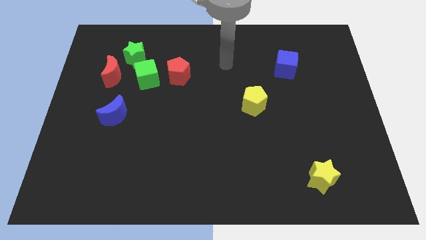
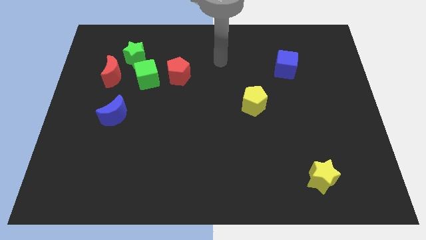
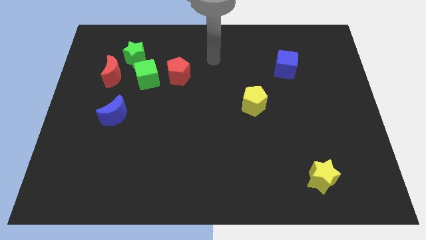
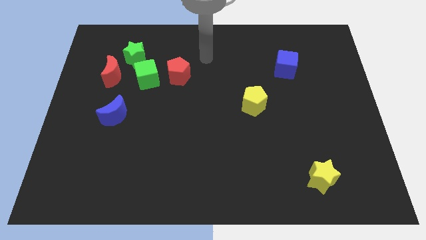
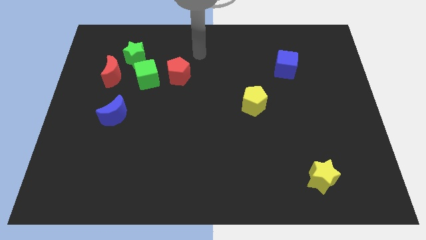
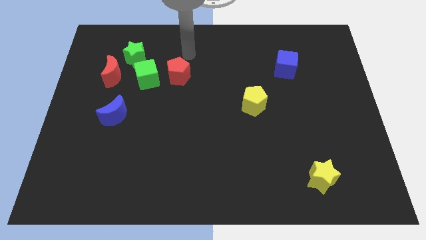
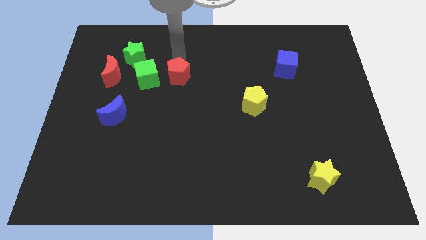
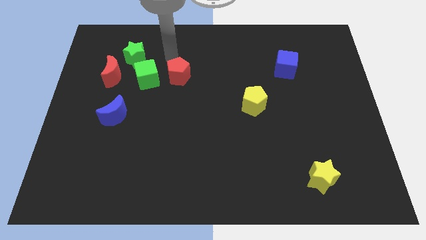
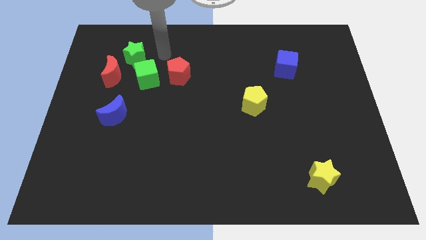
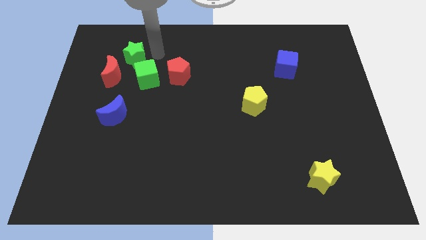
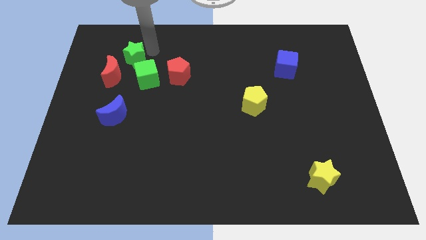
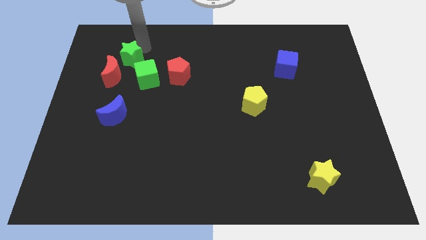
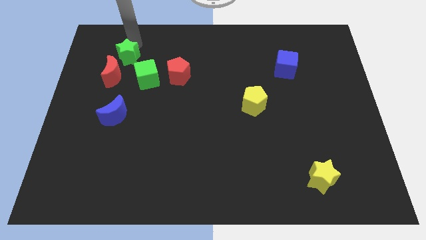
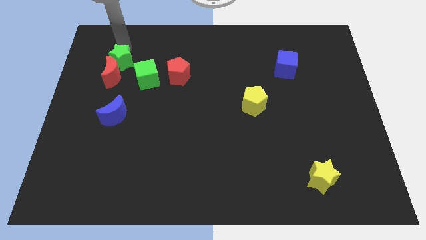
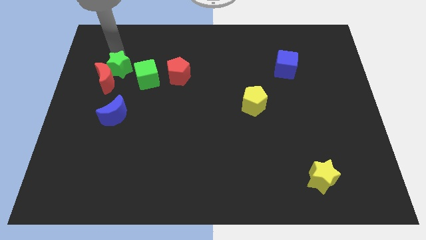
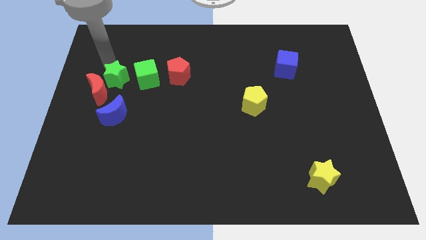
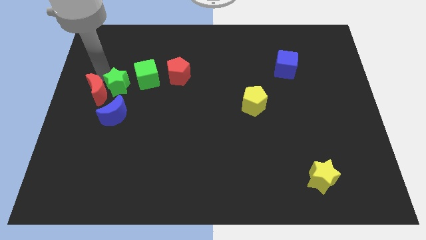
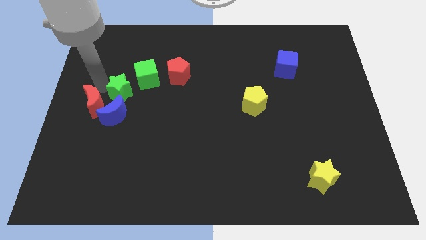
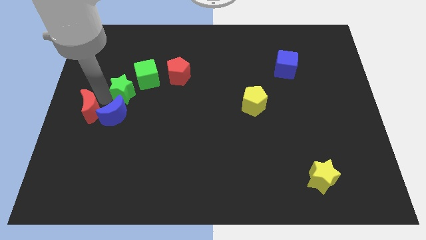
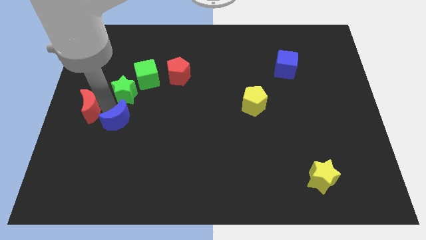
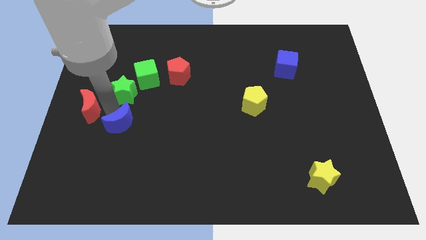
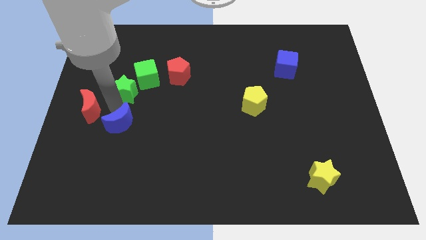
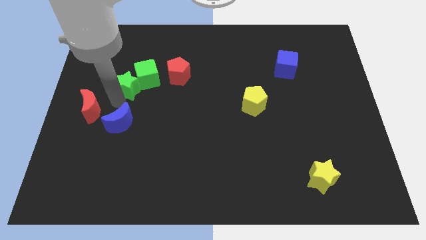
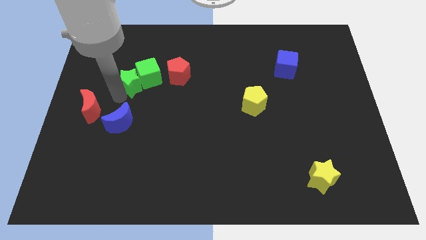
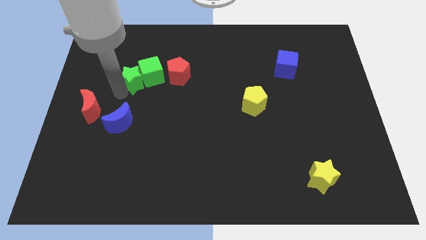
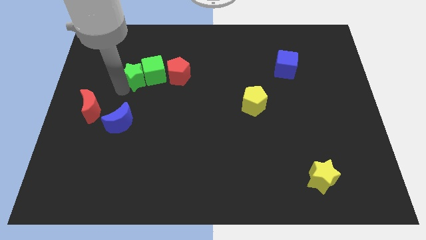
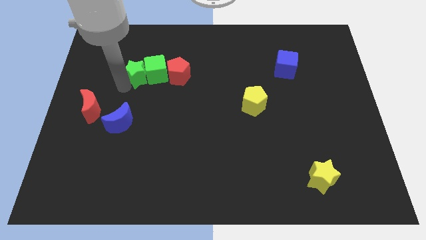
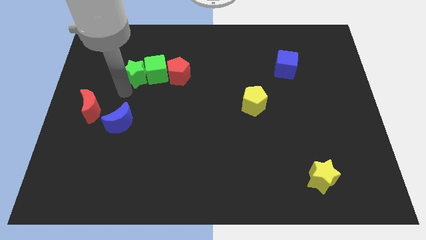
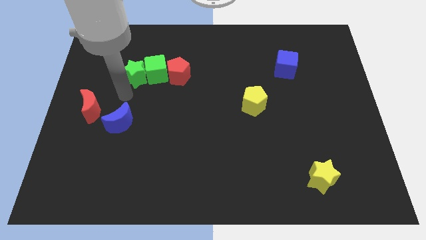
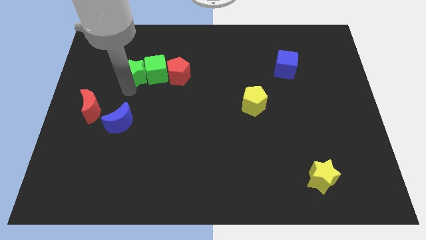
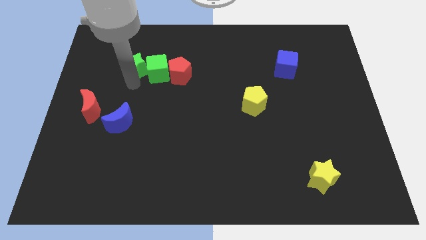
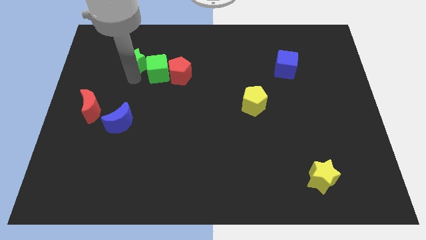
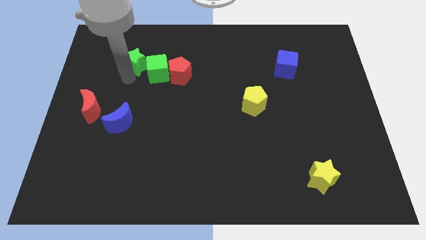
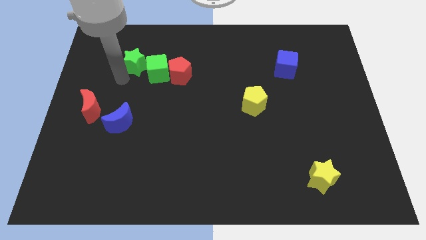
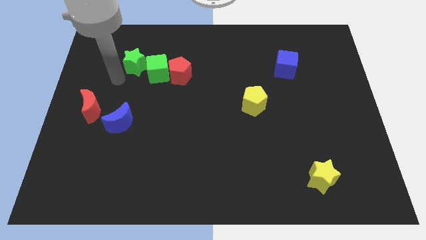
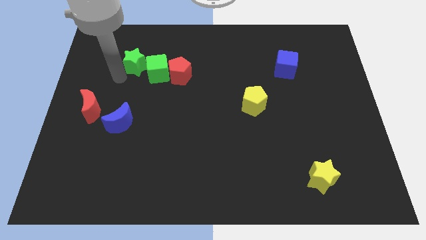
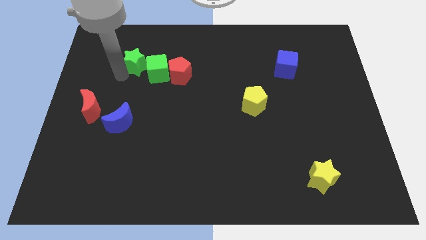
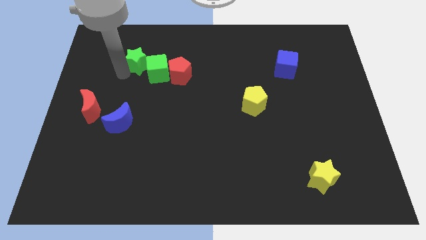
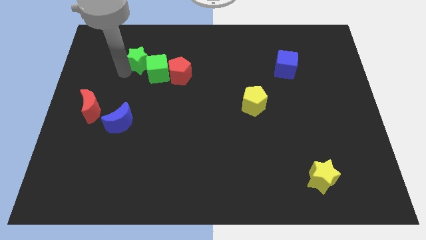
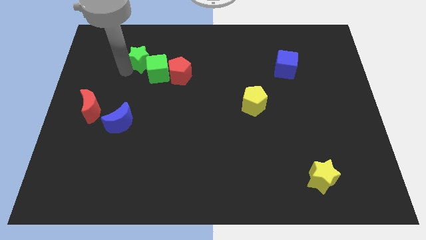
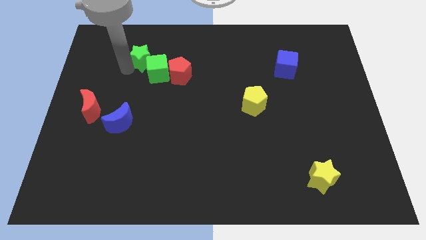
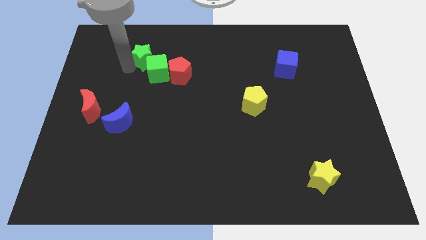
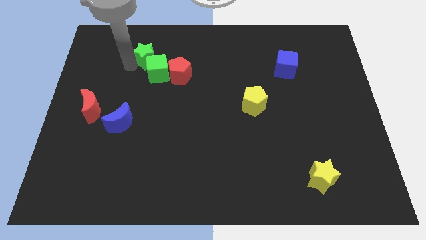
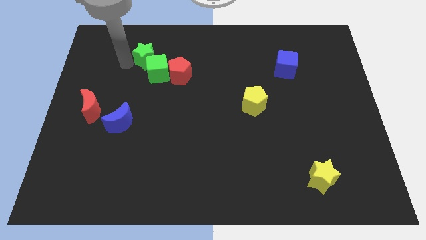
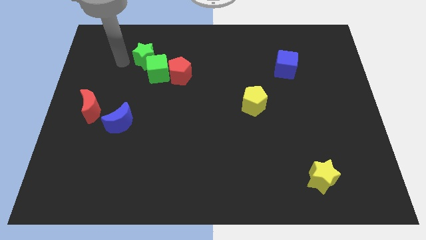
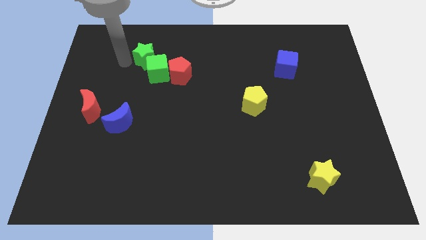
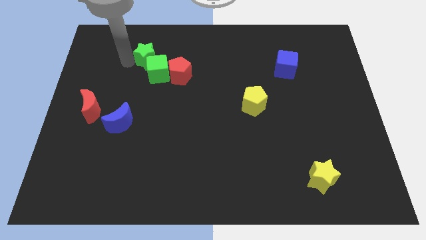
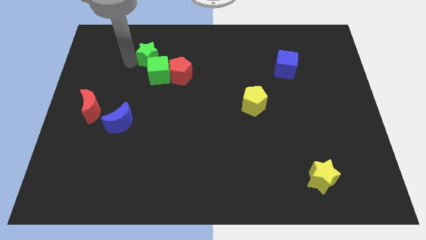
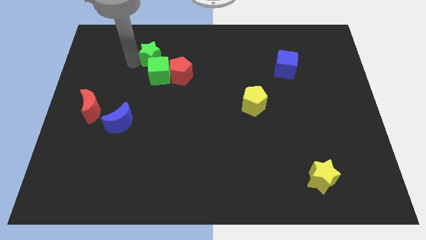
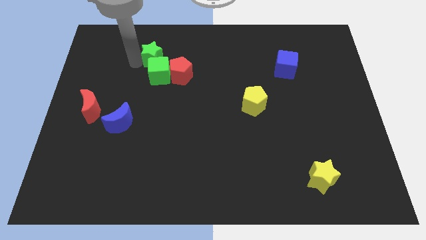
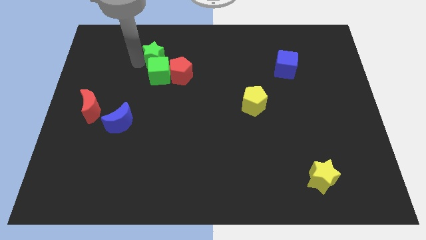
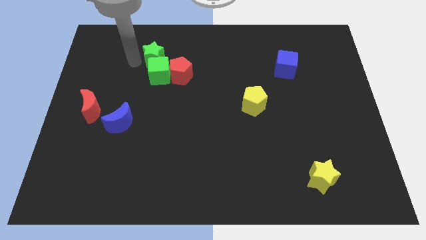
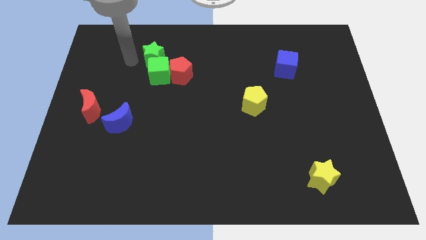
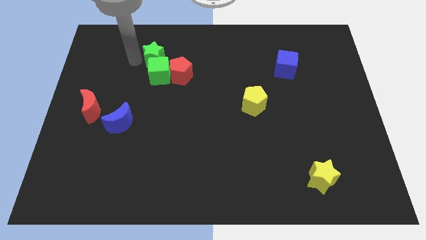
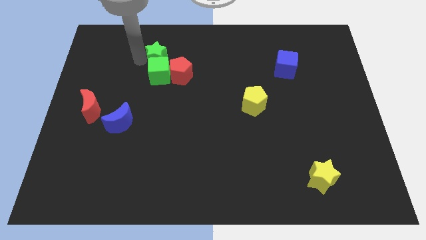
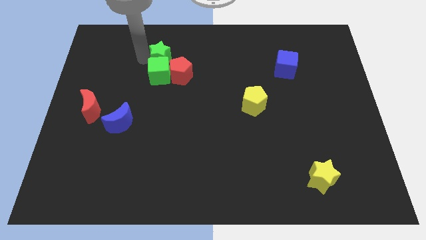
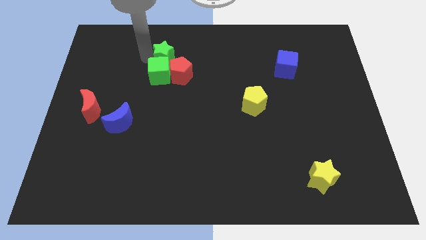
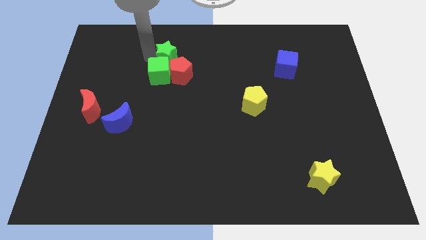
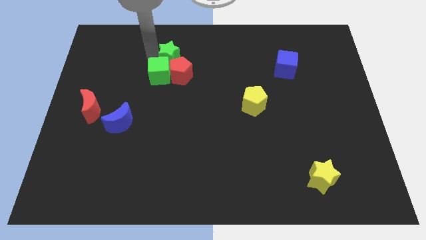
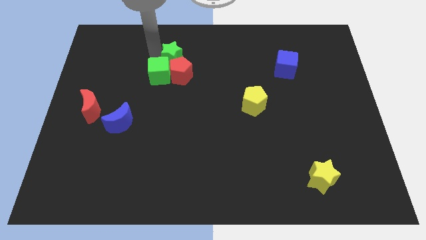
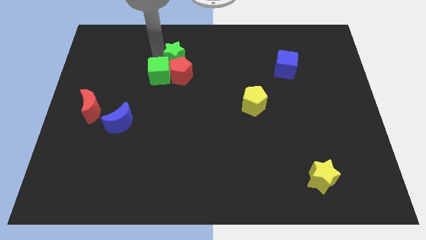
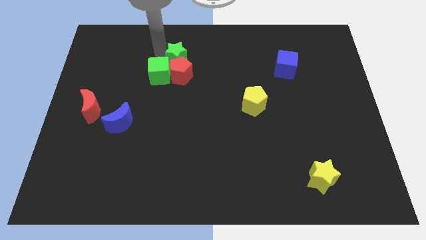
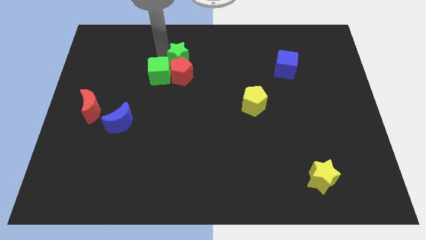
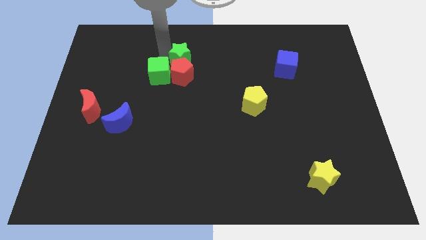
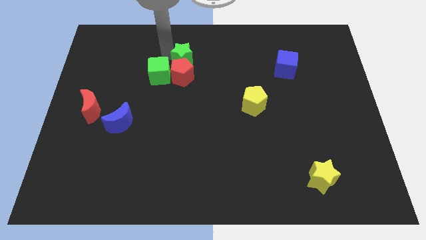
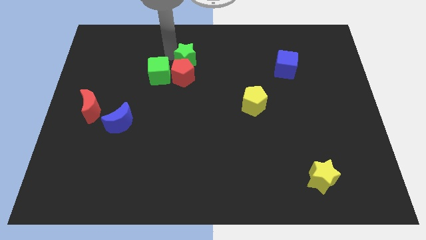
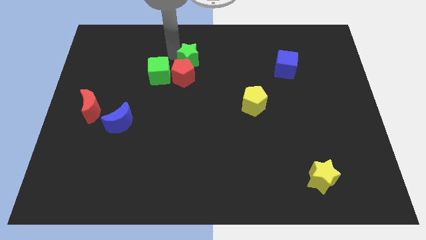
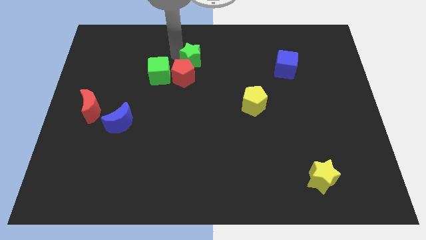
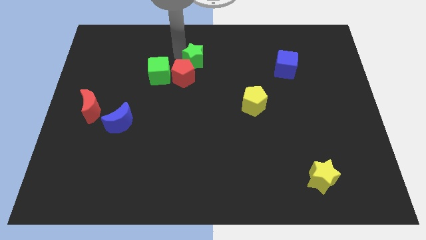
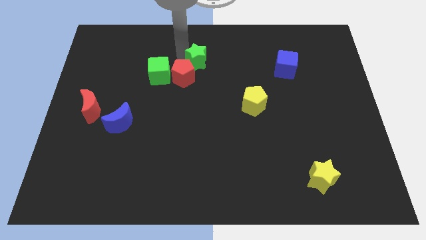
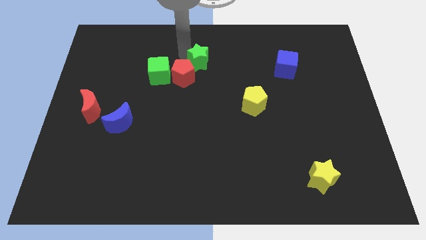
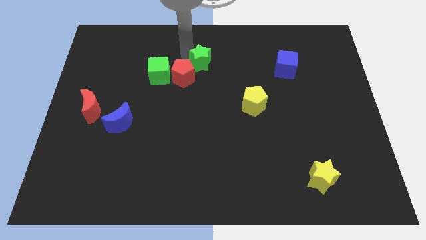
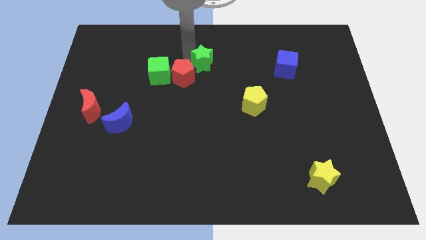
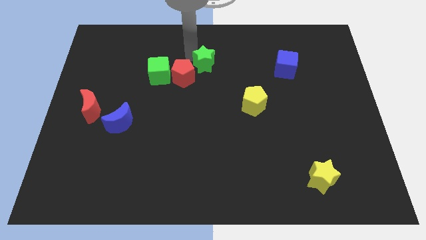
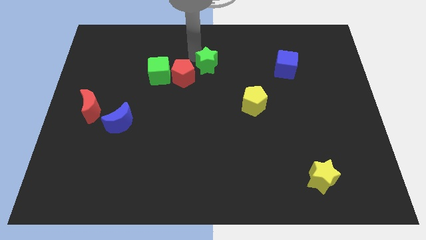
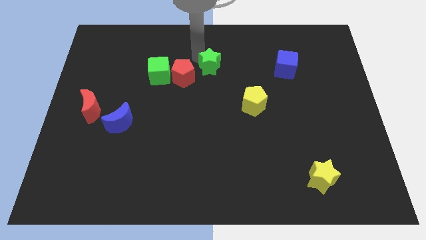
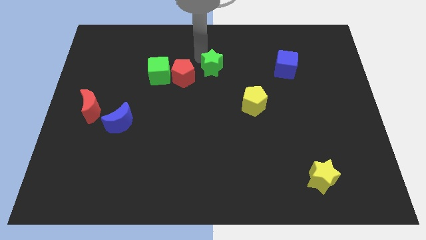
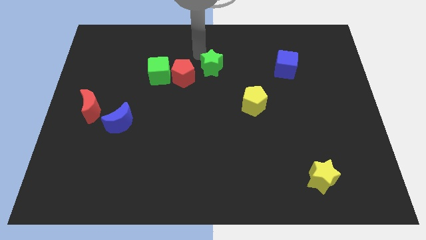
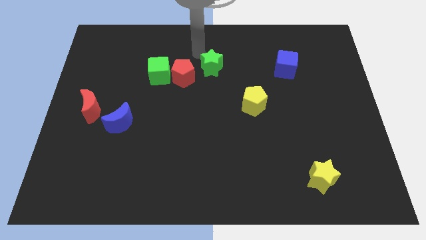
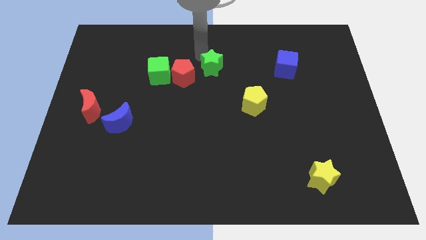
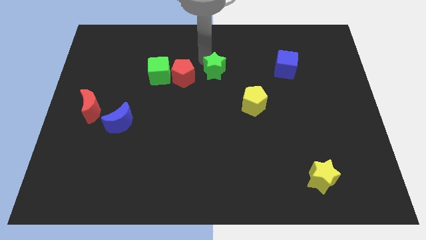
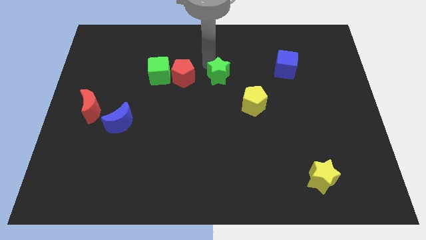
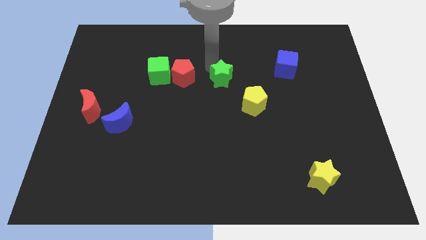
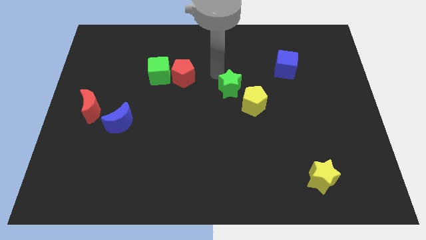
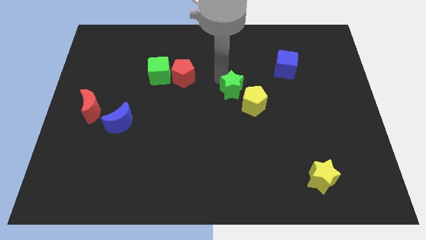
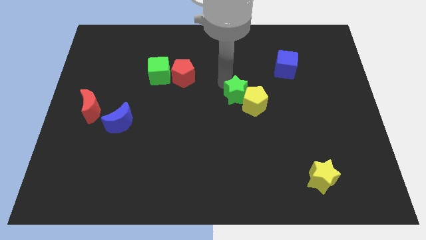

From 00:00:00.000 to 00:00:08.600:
push the green star to the yellow pentagon
